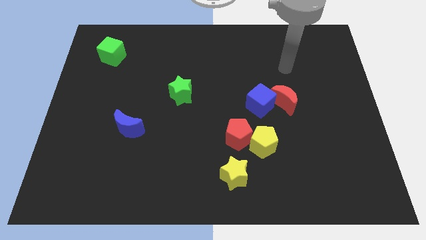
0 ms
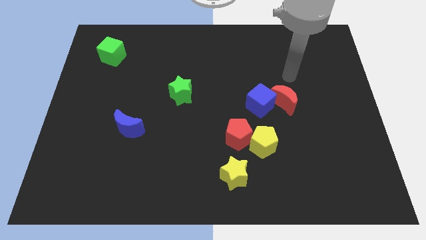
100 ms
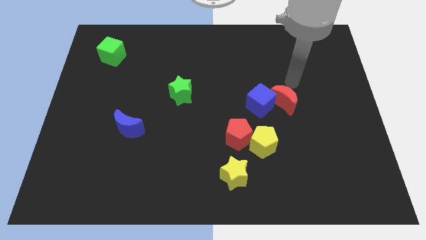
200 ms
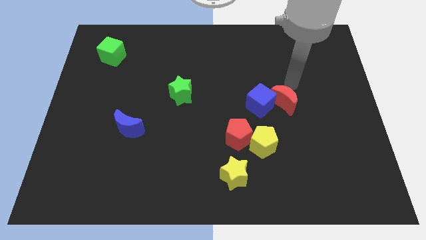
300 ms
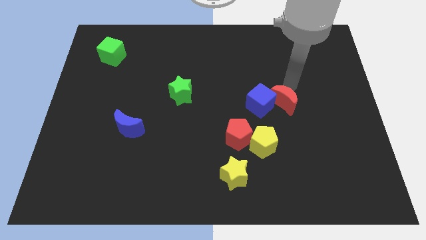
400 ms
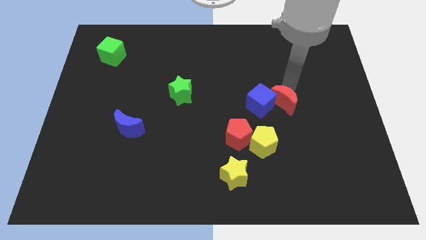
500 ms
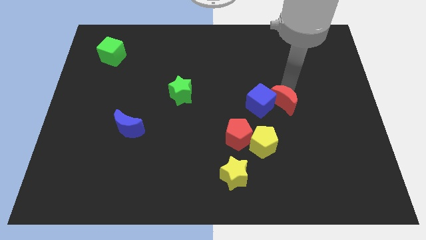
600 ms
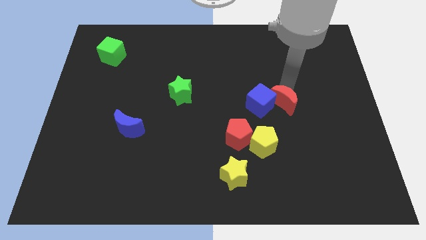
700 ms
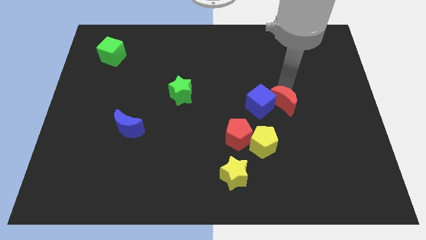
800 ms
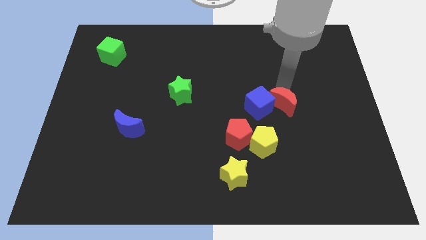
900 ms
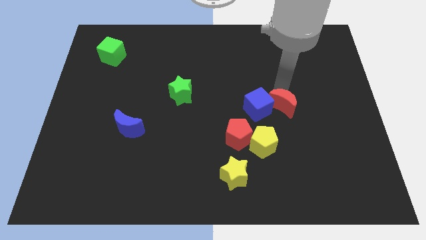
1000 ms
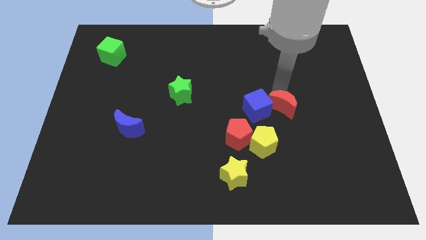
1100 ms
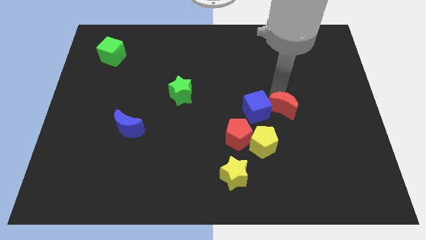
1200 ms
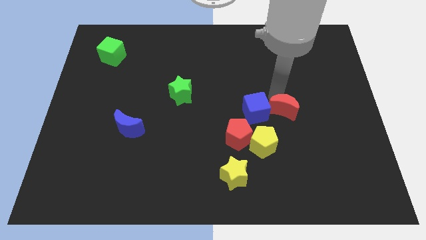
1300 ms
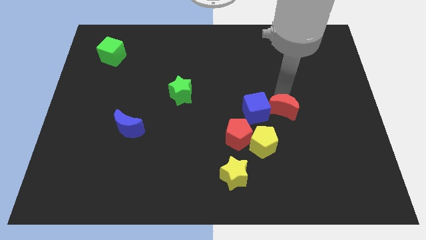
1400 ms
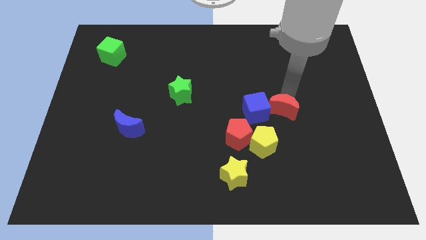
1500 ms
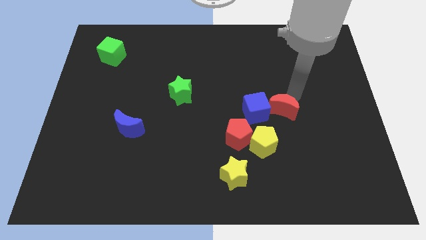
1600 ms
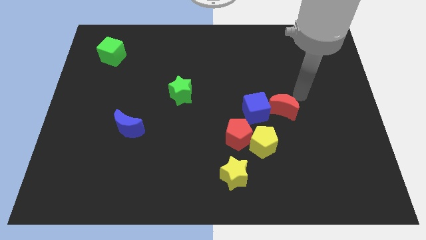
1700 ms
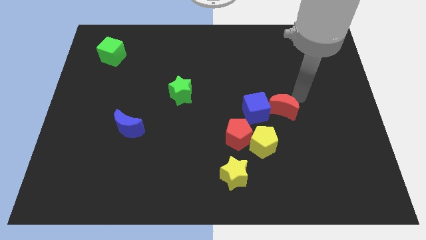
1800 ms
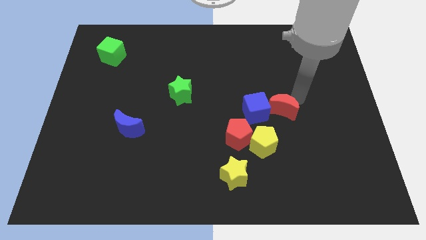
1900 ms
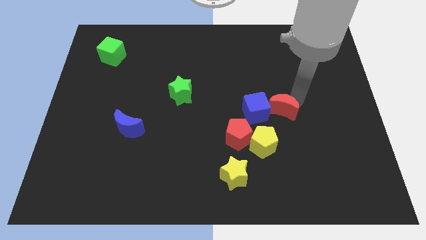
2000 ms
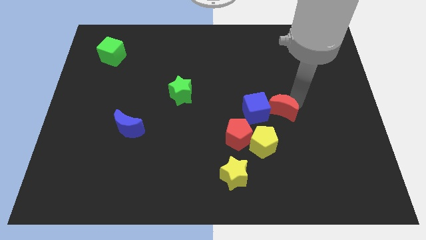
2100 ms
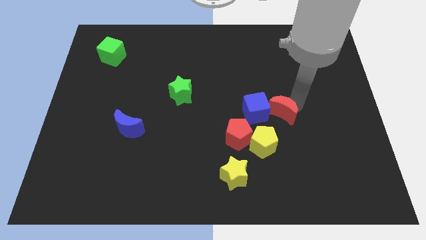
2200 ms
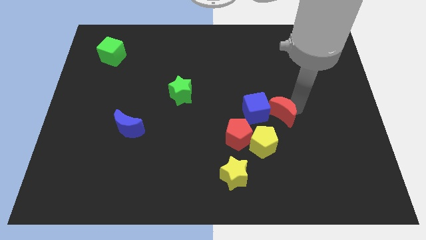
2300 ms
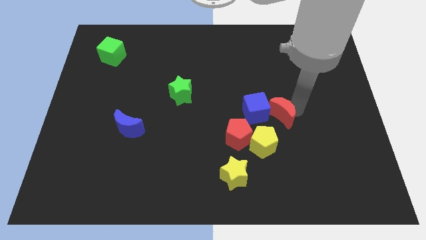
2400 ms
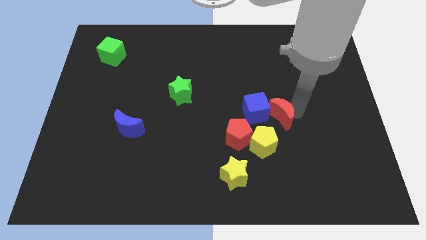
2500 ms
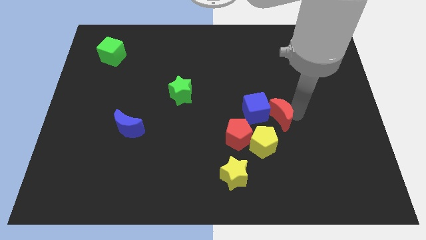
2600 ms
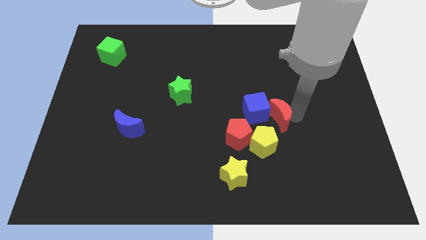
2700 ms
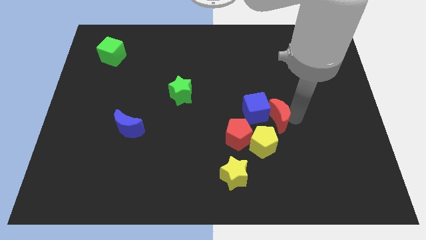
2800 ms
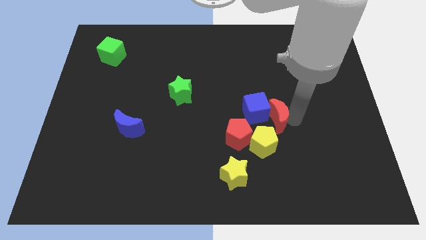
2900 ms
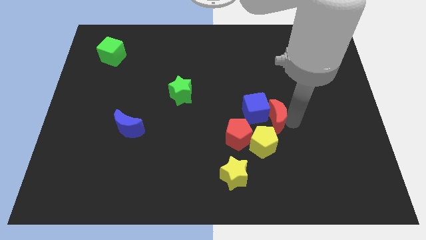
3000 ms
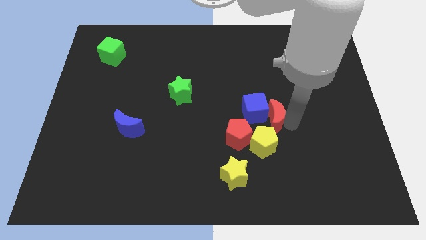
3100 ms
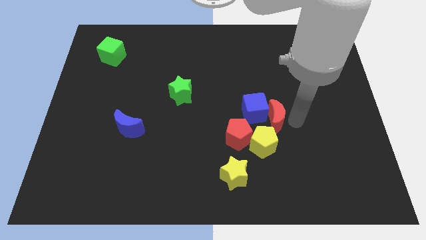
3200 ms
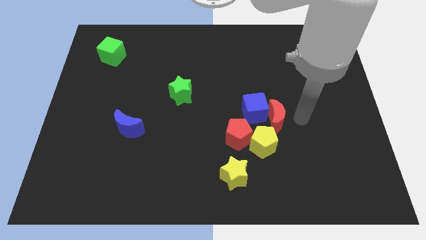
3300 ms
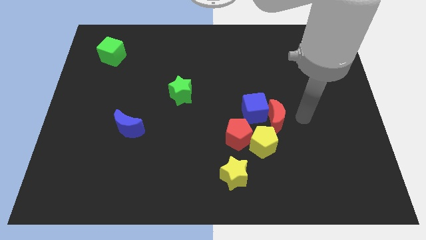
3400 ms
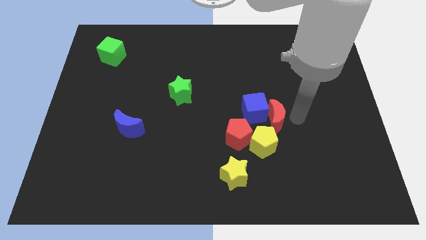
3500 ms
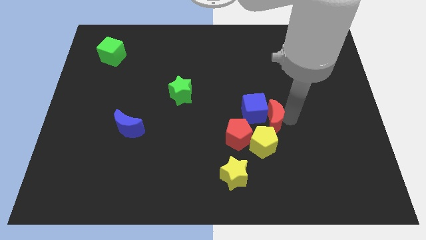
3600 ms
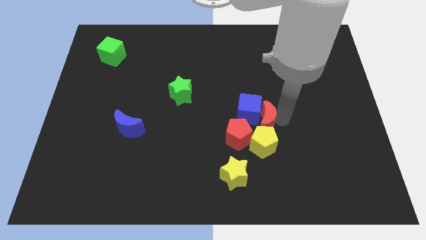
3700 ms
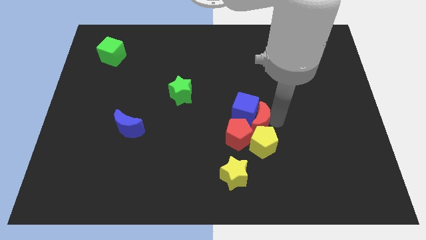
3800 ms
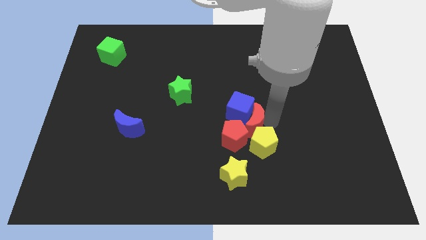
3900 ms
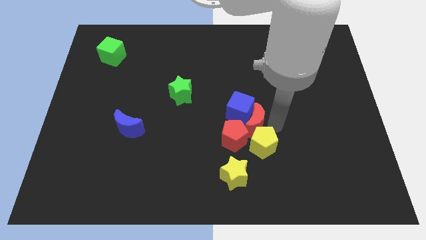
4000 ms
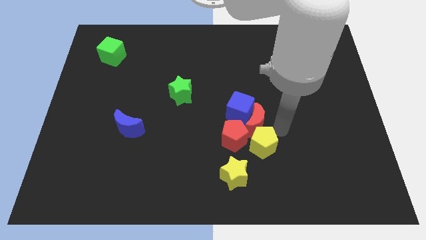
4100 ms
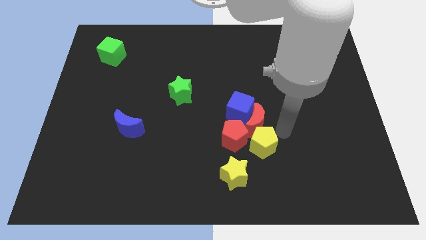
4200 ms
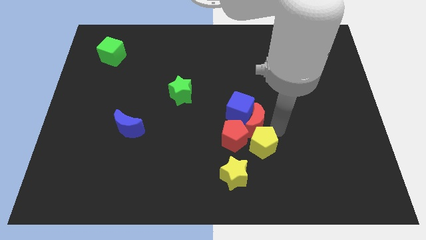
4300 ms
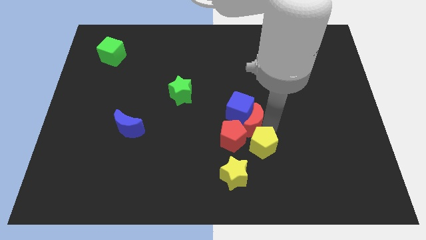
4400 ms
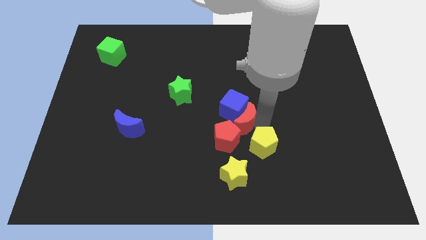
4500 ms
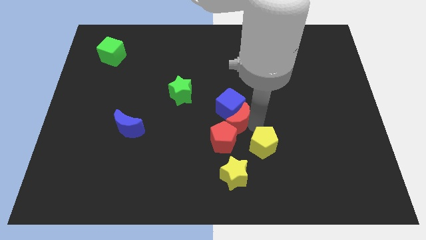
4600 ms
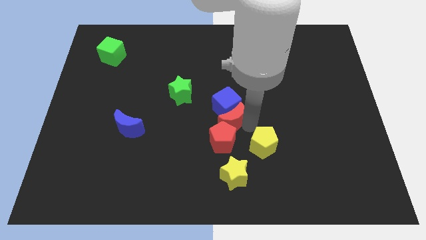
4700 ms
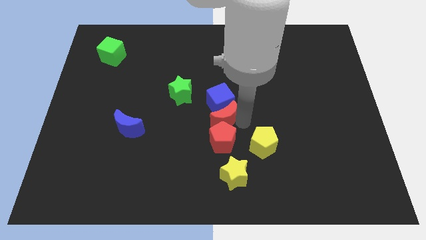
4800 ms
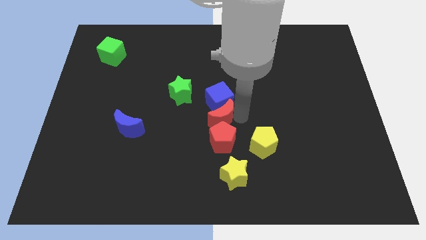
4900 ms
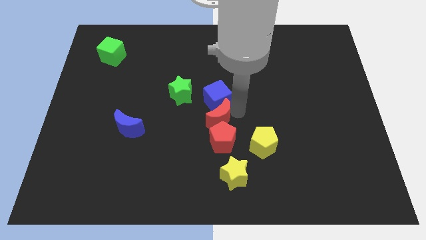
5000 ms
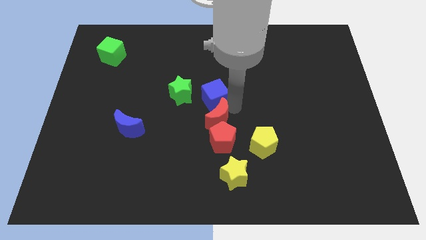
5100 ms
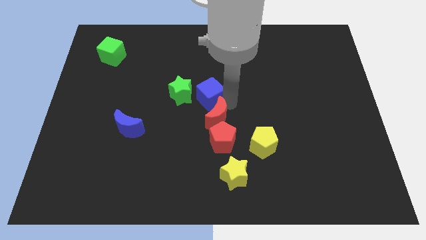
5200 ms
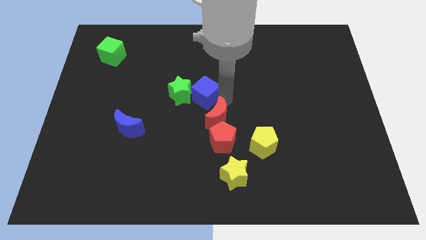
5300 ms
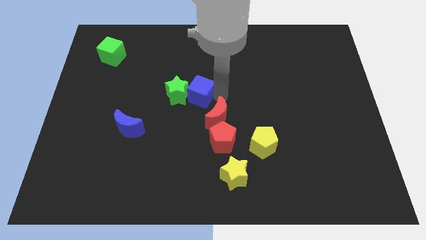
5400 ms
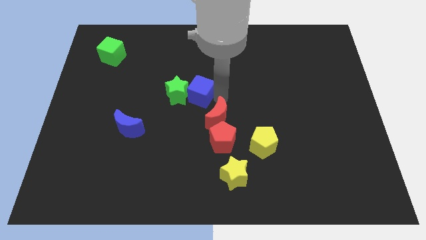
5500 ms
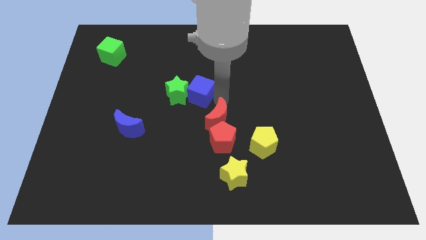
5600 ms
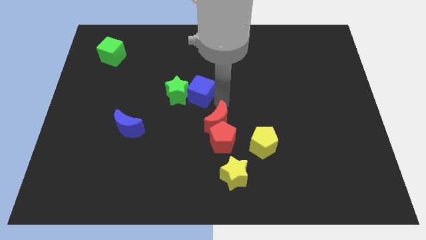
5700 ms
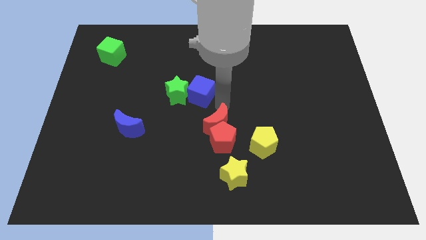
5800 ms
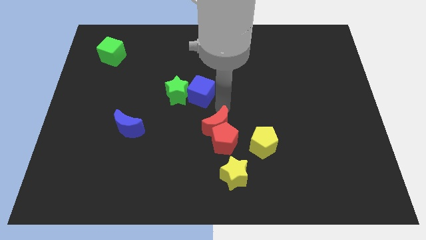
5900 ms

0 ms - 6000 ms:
move the red moon to the left of the yellow pentagon
